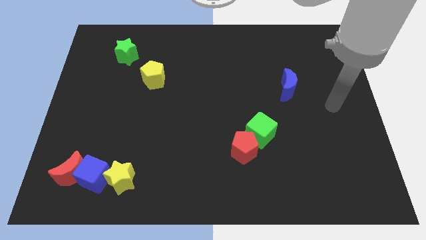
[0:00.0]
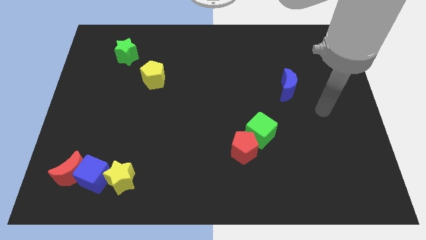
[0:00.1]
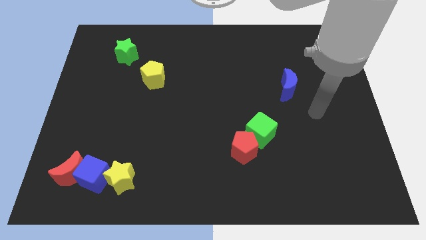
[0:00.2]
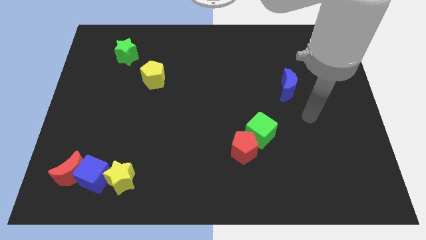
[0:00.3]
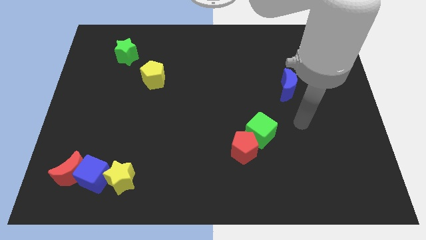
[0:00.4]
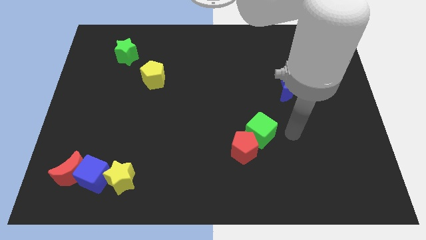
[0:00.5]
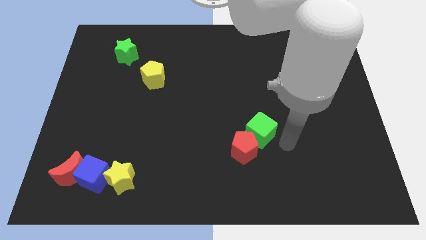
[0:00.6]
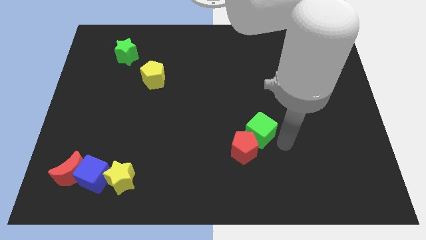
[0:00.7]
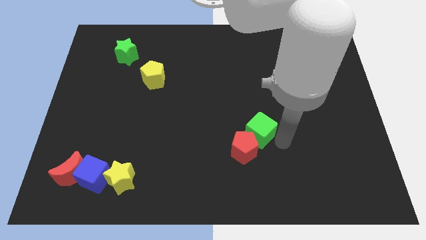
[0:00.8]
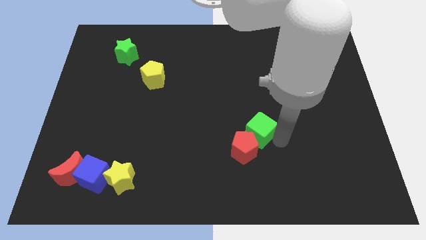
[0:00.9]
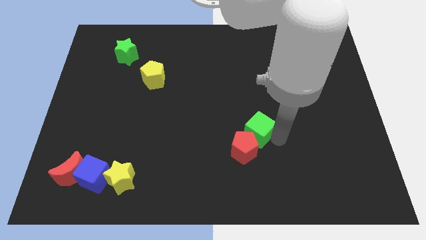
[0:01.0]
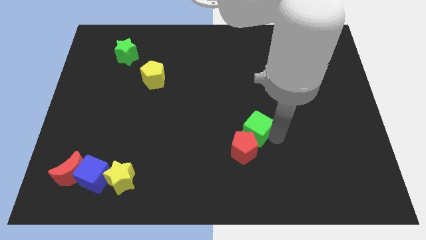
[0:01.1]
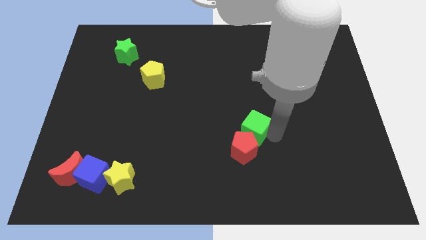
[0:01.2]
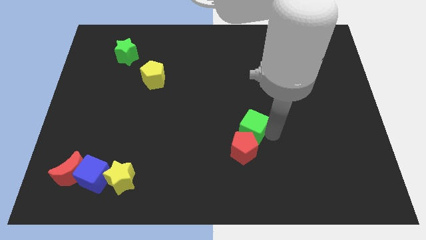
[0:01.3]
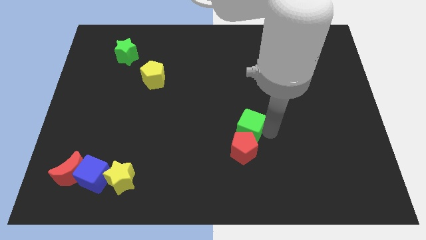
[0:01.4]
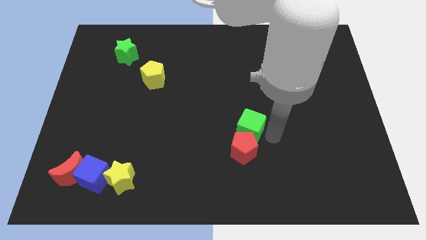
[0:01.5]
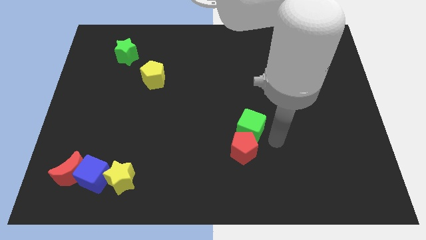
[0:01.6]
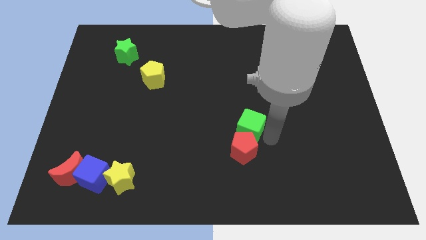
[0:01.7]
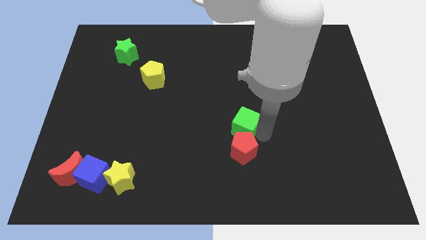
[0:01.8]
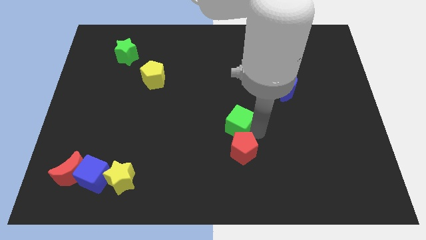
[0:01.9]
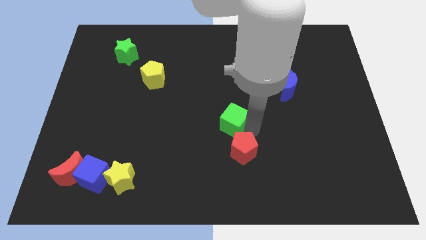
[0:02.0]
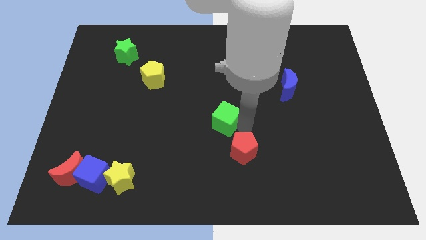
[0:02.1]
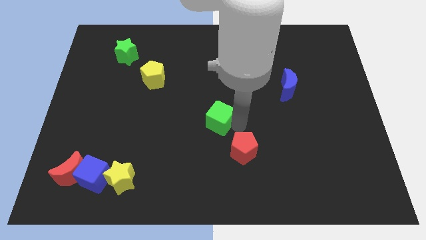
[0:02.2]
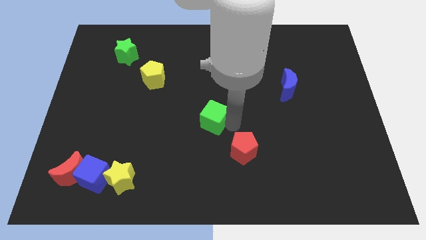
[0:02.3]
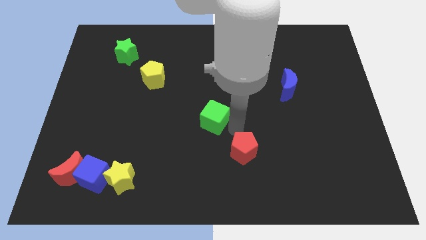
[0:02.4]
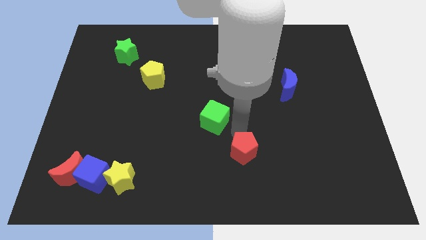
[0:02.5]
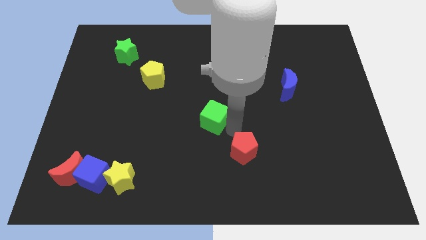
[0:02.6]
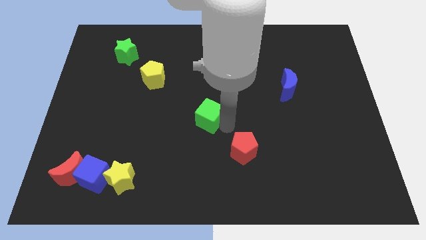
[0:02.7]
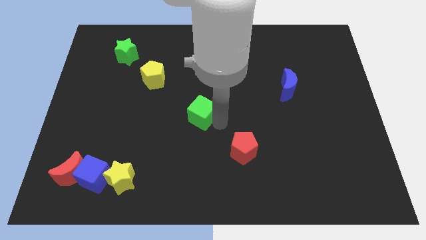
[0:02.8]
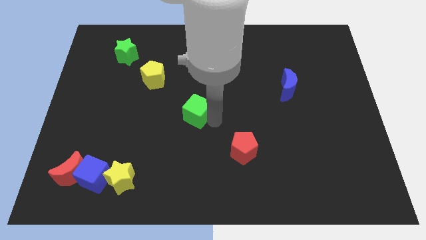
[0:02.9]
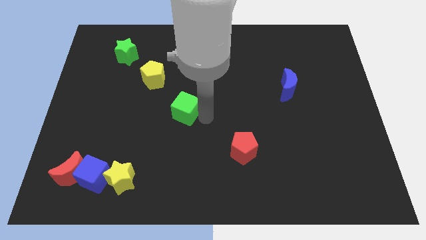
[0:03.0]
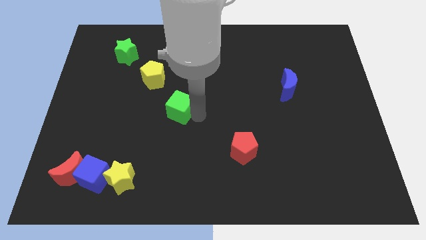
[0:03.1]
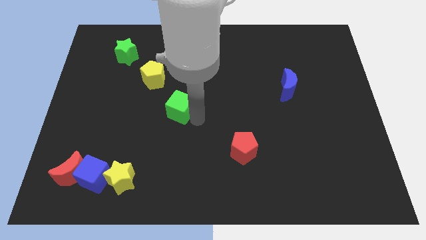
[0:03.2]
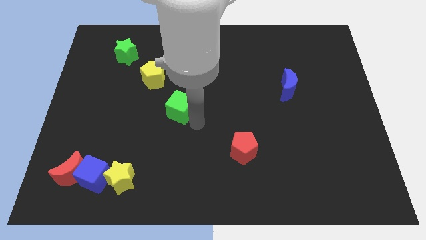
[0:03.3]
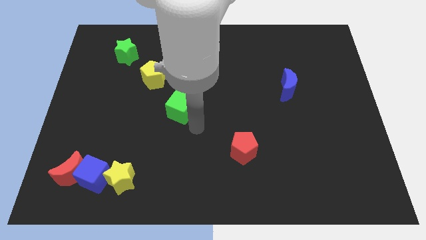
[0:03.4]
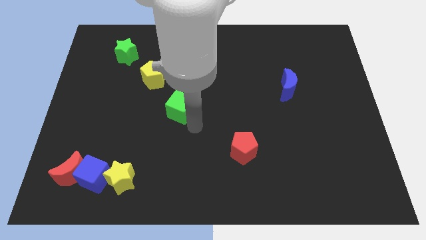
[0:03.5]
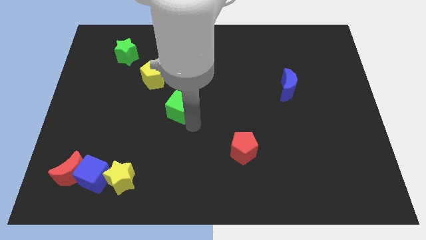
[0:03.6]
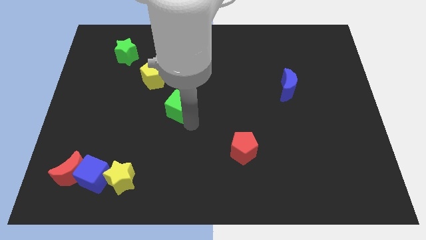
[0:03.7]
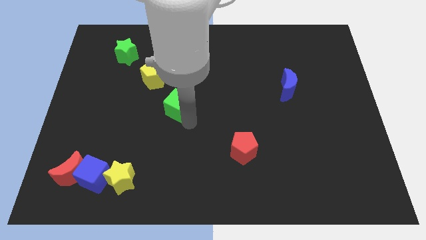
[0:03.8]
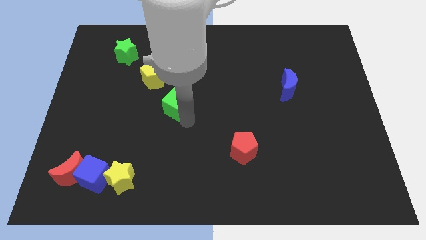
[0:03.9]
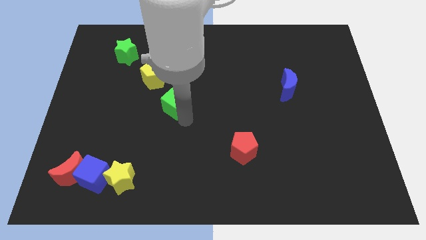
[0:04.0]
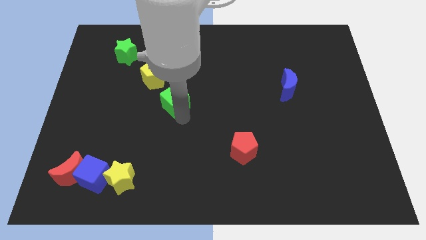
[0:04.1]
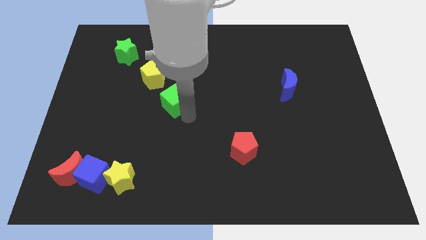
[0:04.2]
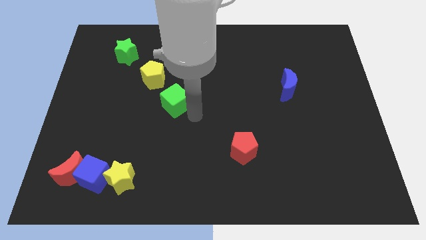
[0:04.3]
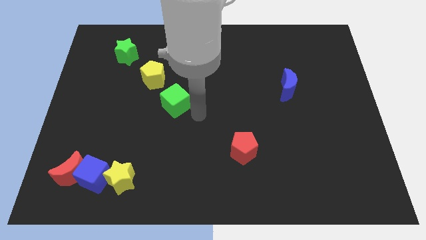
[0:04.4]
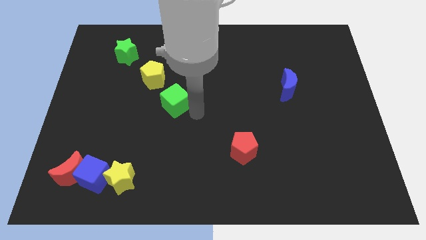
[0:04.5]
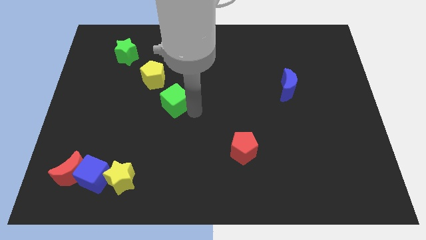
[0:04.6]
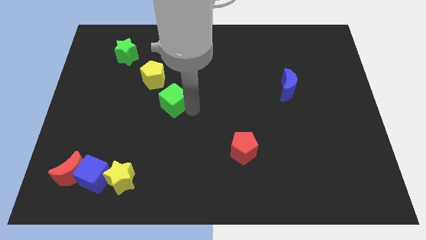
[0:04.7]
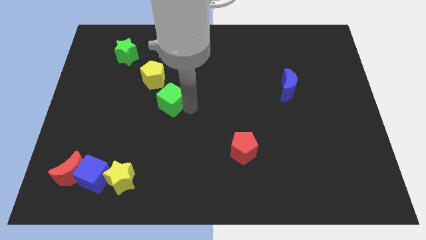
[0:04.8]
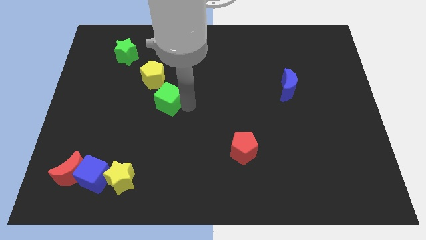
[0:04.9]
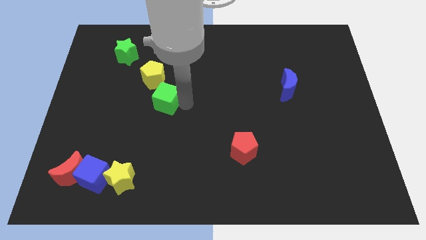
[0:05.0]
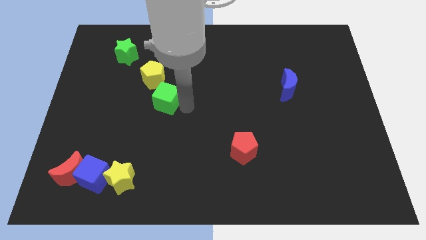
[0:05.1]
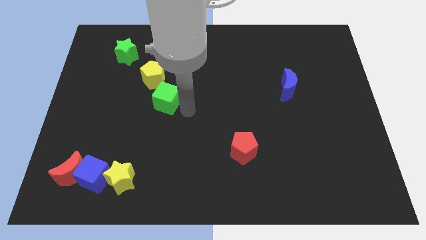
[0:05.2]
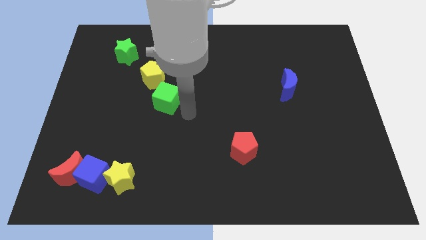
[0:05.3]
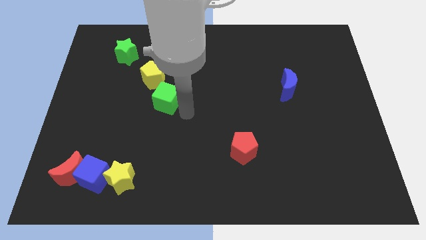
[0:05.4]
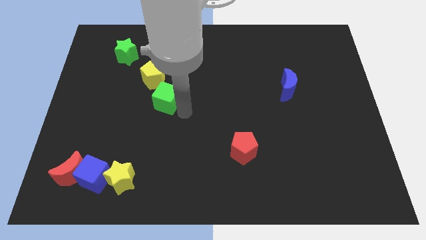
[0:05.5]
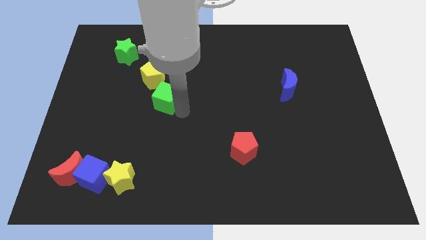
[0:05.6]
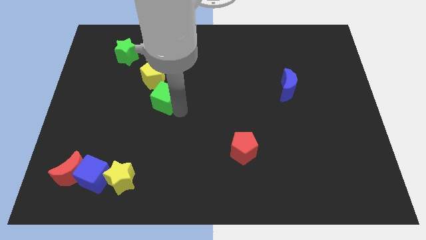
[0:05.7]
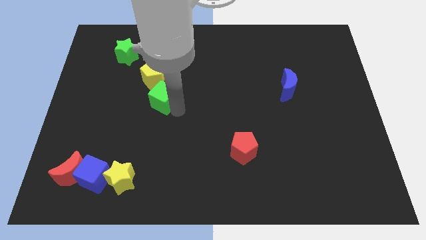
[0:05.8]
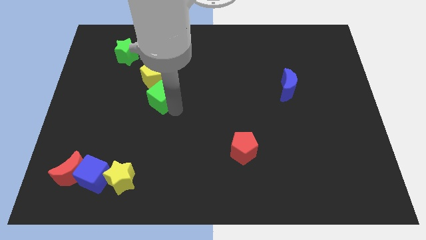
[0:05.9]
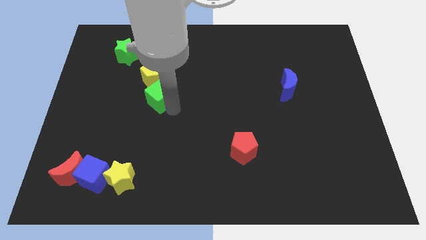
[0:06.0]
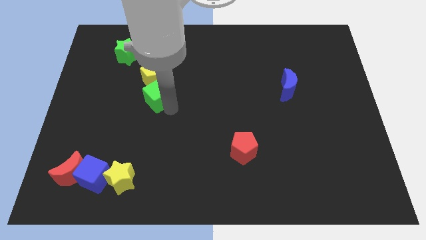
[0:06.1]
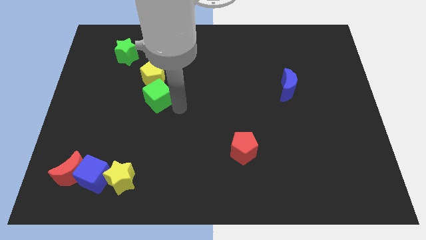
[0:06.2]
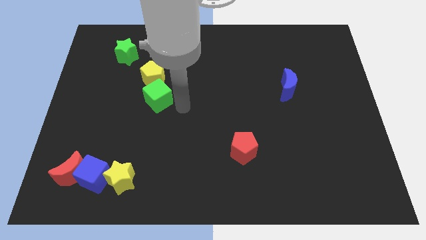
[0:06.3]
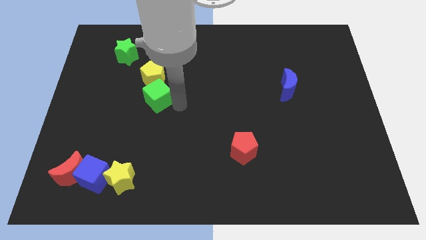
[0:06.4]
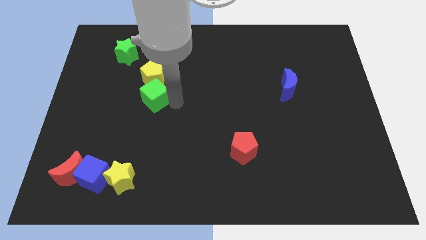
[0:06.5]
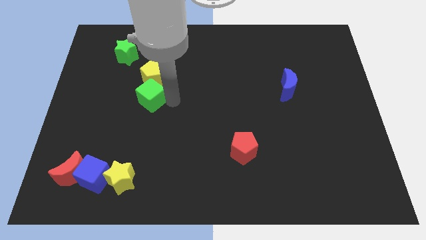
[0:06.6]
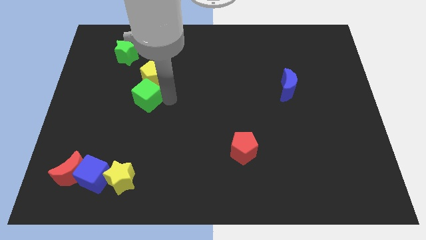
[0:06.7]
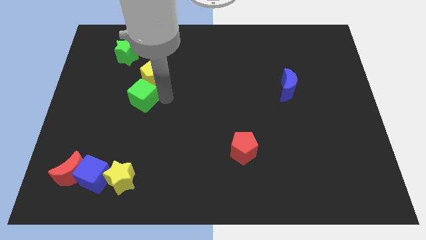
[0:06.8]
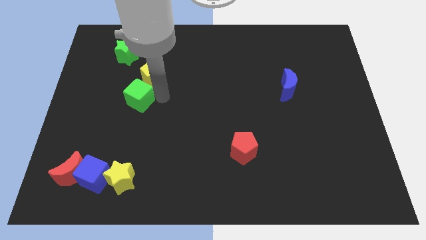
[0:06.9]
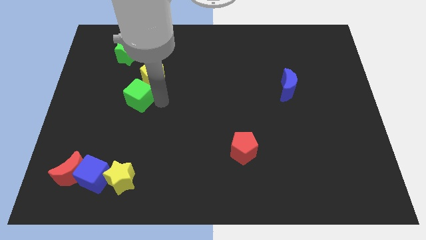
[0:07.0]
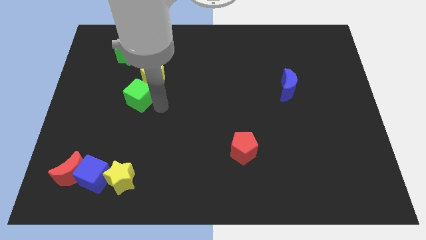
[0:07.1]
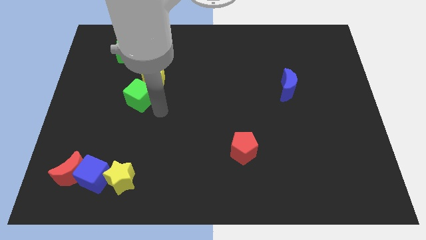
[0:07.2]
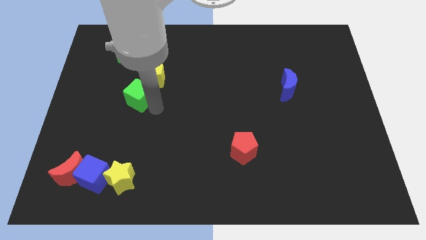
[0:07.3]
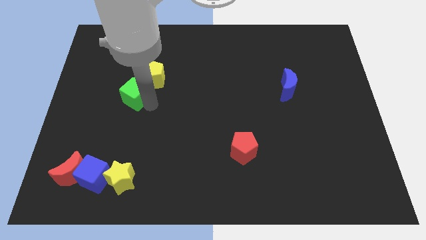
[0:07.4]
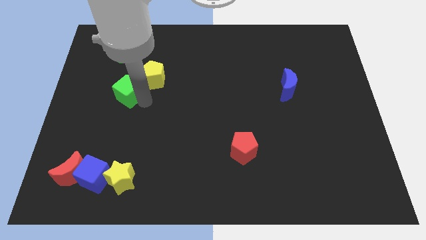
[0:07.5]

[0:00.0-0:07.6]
slide the green cube to the bottom of the green star
